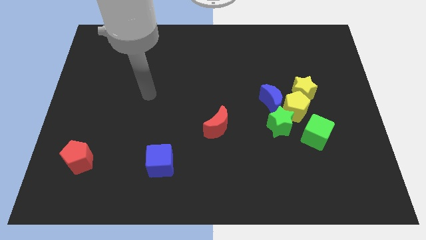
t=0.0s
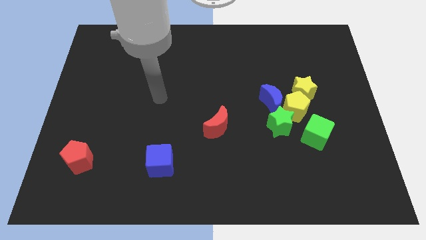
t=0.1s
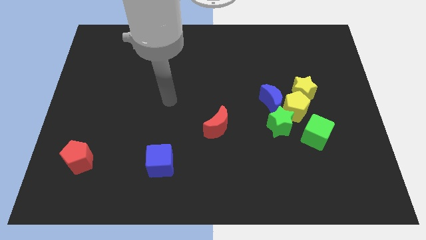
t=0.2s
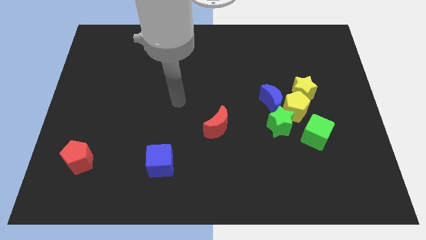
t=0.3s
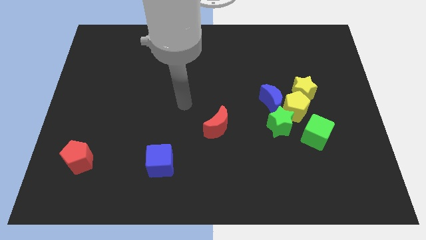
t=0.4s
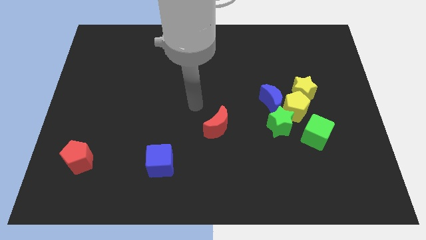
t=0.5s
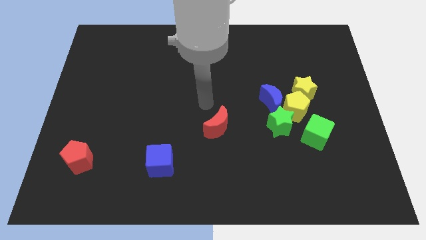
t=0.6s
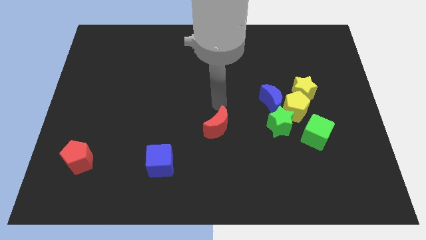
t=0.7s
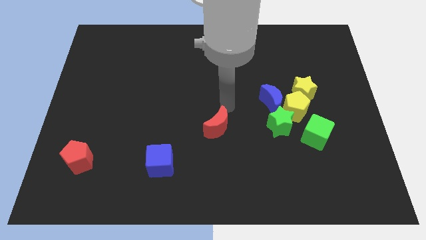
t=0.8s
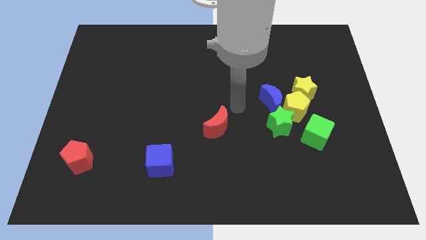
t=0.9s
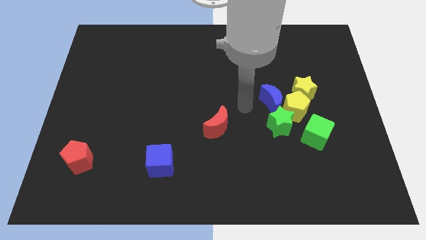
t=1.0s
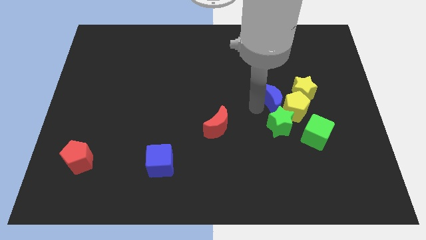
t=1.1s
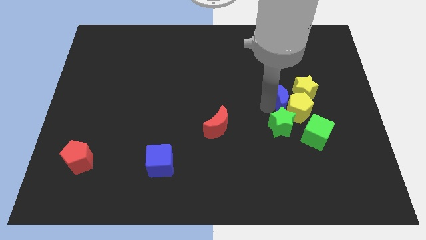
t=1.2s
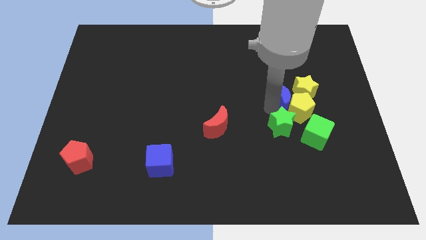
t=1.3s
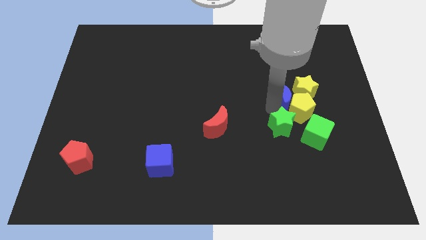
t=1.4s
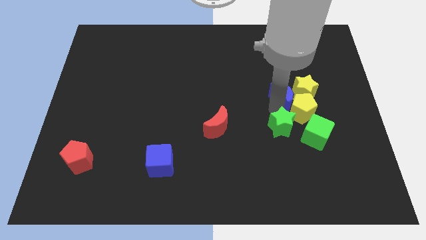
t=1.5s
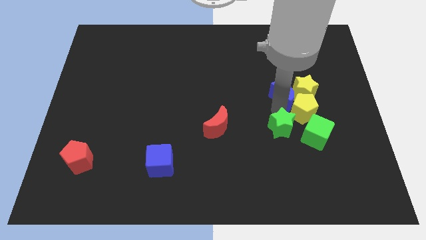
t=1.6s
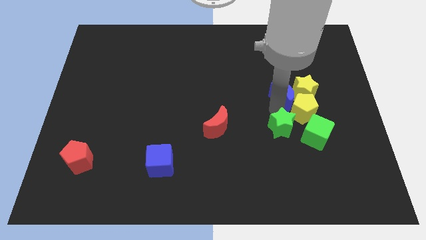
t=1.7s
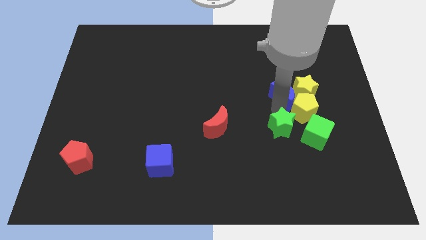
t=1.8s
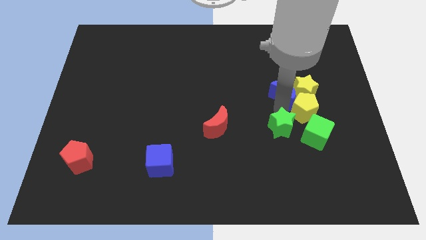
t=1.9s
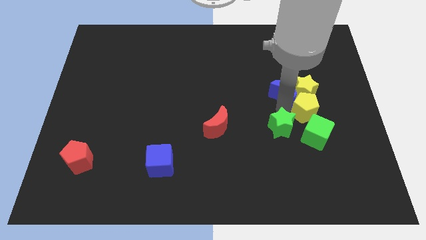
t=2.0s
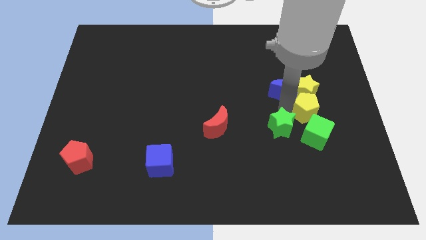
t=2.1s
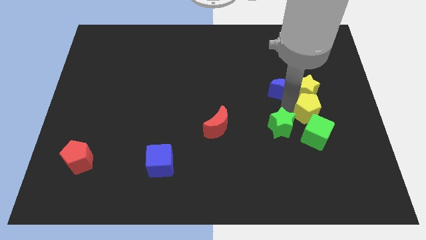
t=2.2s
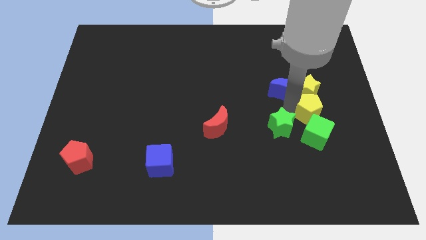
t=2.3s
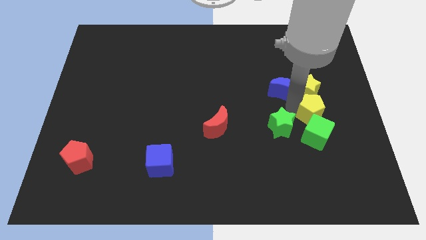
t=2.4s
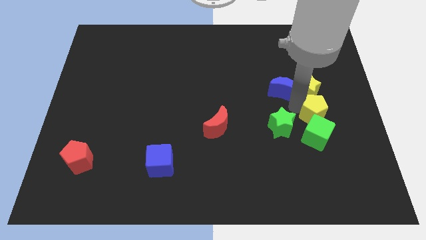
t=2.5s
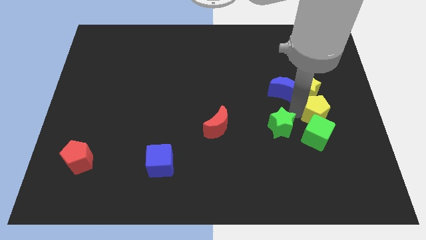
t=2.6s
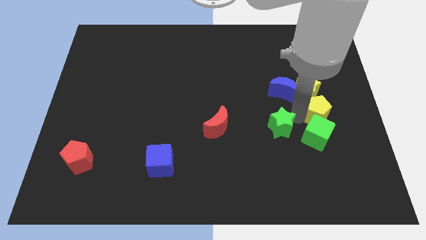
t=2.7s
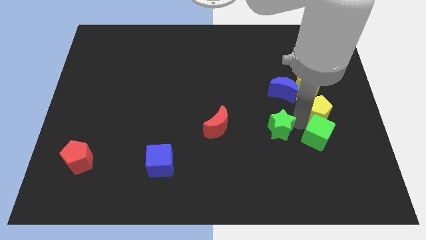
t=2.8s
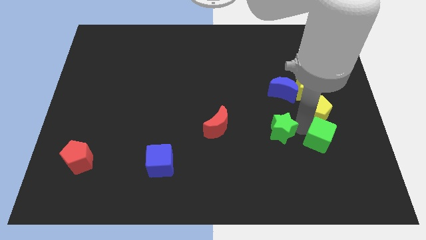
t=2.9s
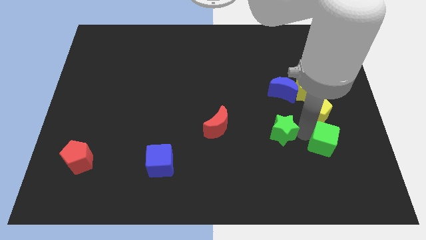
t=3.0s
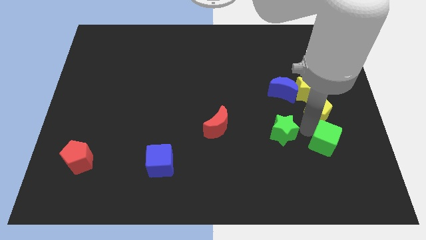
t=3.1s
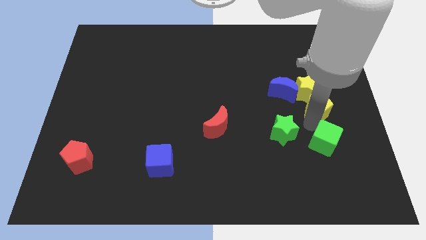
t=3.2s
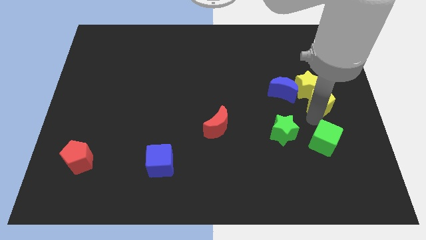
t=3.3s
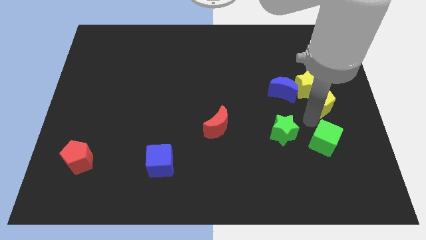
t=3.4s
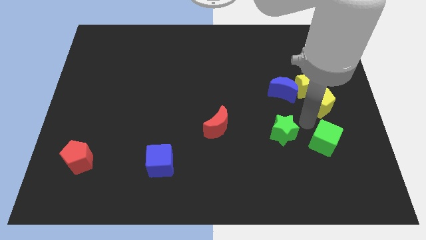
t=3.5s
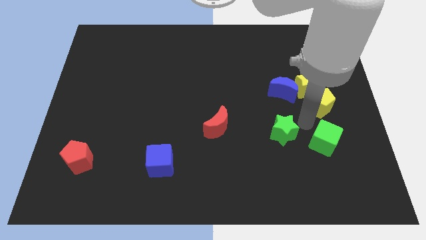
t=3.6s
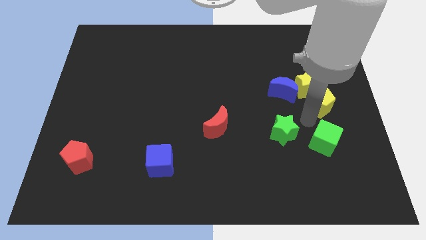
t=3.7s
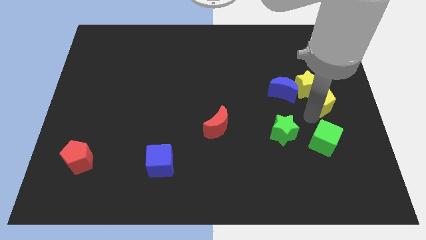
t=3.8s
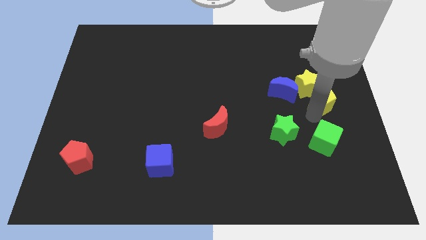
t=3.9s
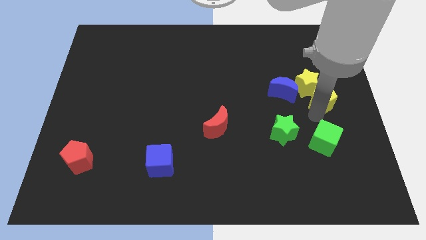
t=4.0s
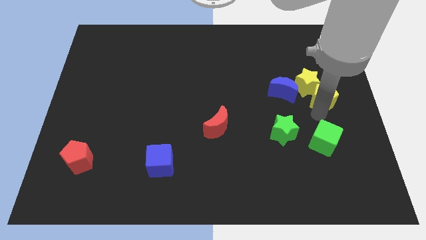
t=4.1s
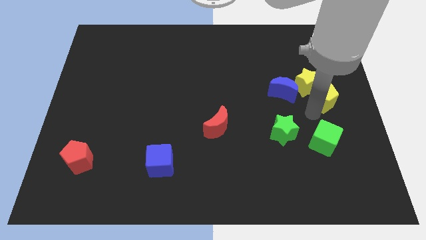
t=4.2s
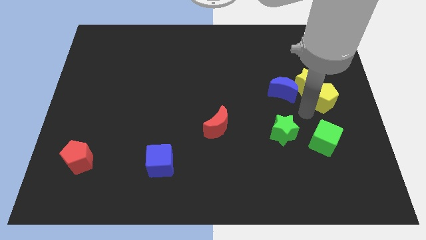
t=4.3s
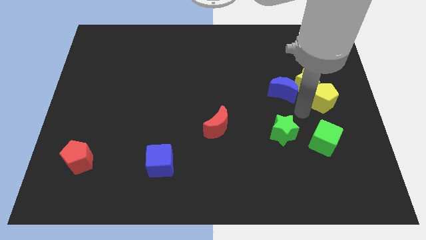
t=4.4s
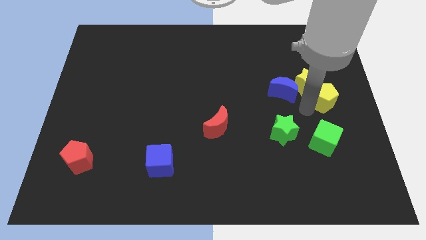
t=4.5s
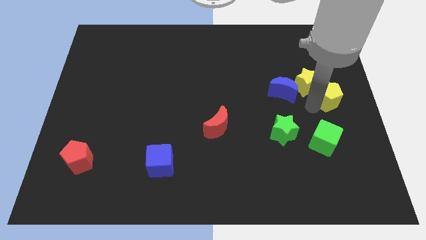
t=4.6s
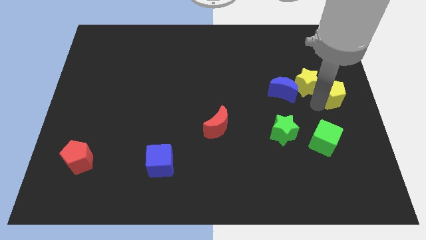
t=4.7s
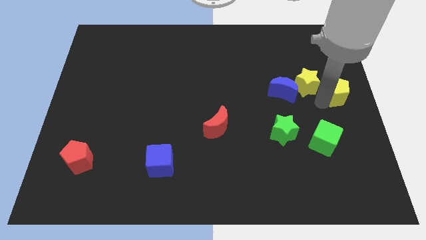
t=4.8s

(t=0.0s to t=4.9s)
separate the yellow pentagon from the group of blocks

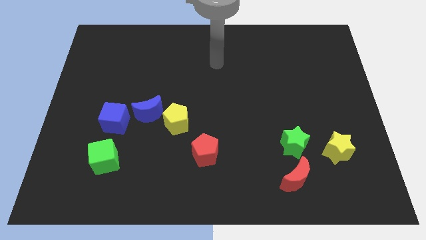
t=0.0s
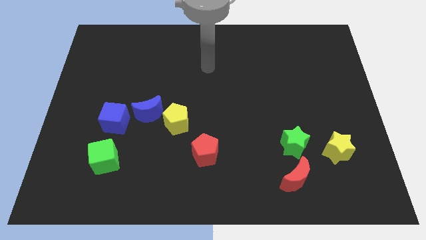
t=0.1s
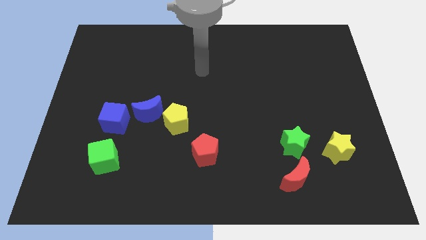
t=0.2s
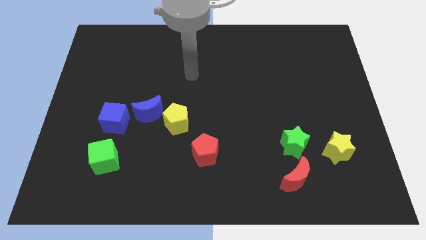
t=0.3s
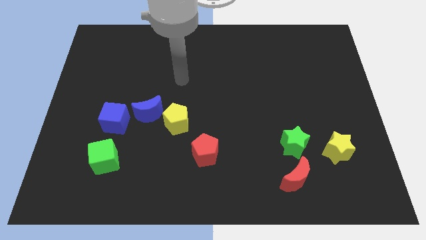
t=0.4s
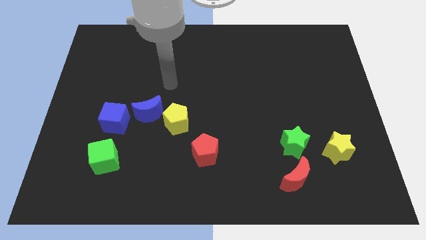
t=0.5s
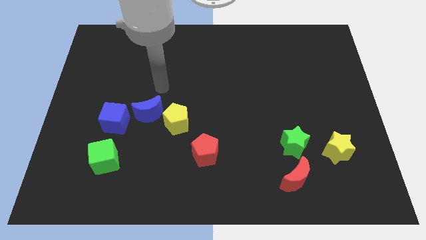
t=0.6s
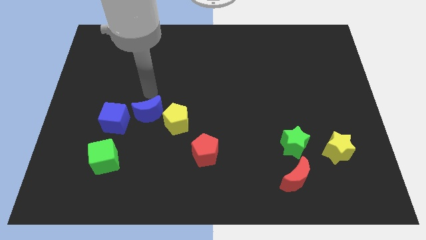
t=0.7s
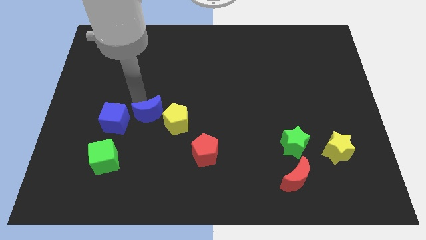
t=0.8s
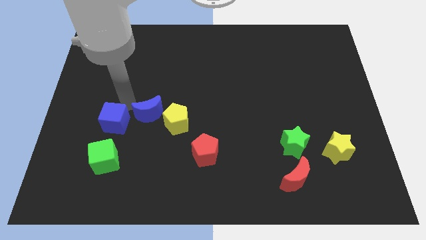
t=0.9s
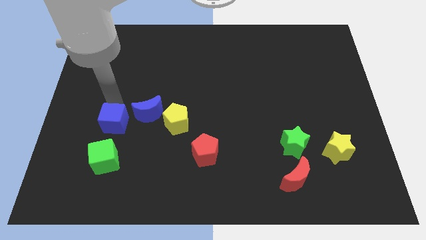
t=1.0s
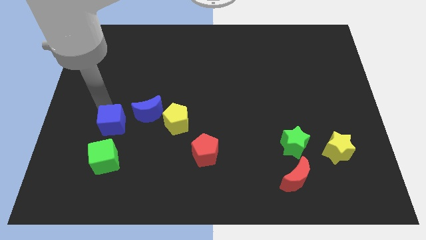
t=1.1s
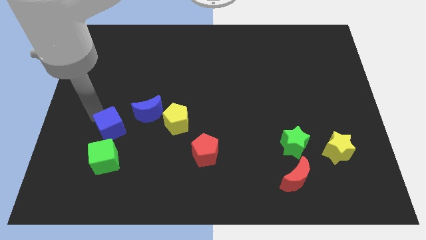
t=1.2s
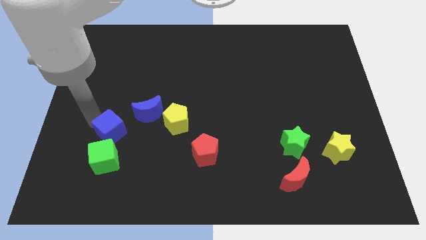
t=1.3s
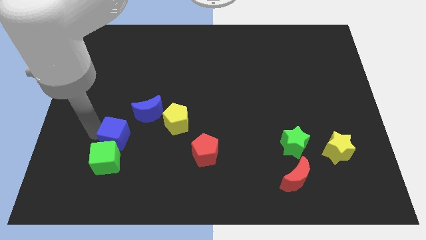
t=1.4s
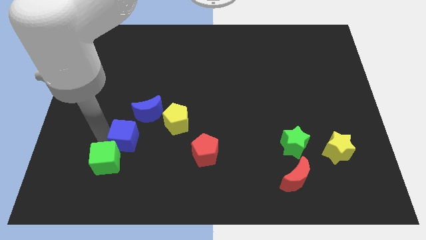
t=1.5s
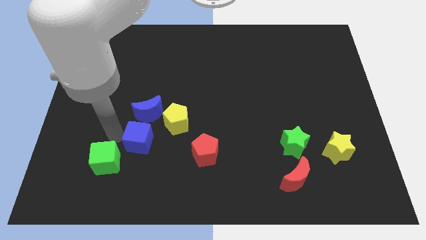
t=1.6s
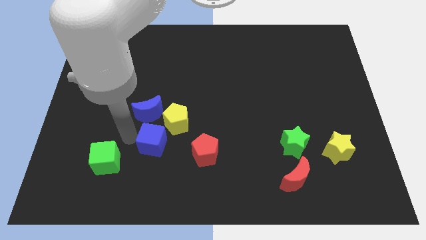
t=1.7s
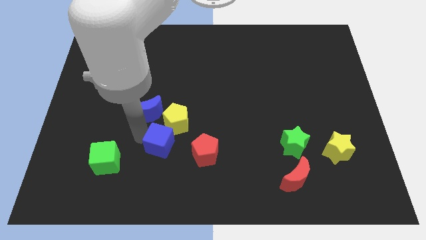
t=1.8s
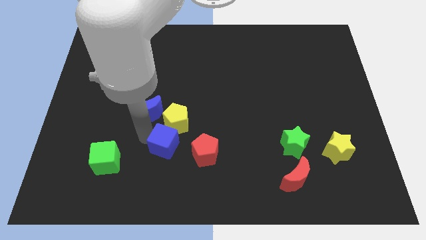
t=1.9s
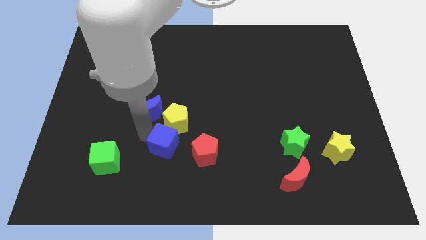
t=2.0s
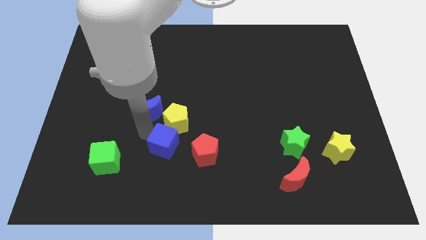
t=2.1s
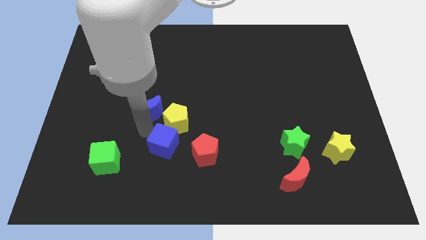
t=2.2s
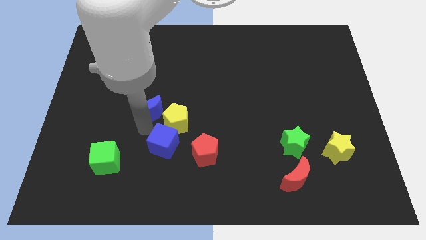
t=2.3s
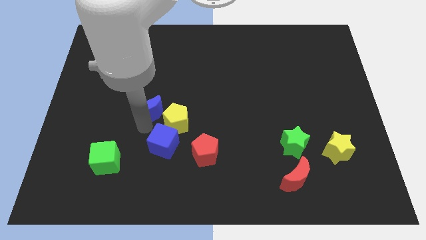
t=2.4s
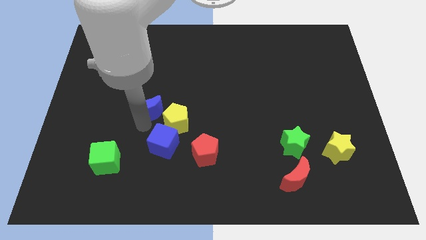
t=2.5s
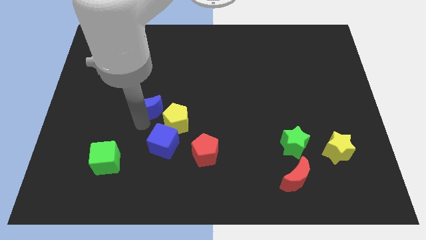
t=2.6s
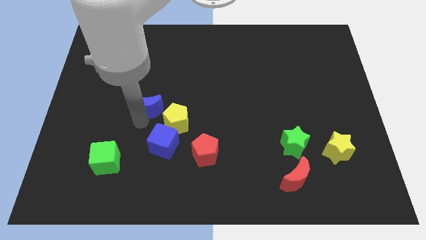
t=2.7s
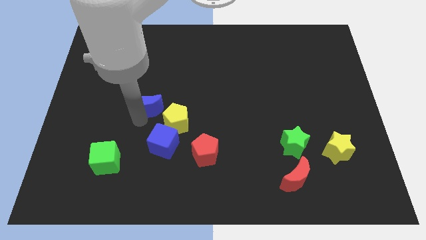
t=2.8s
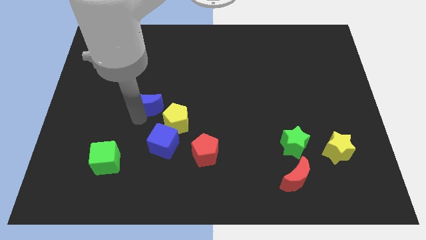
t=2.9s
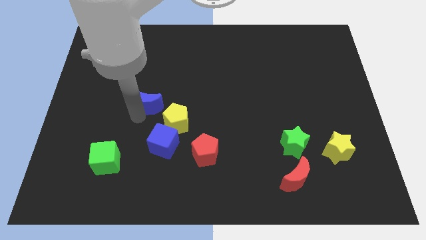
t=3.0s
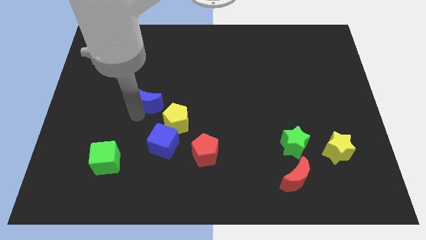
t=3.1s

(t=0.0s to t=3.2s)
pull the blue moon apart from the yellow pentagon and blue cube

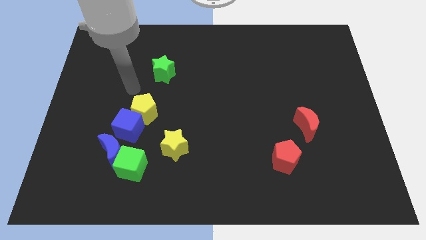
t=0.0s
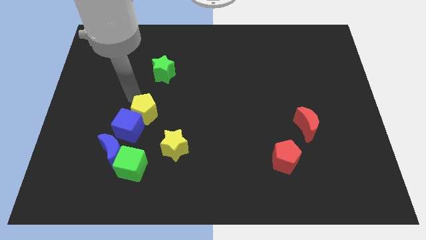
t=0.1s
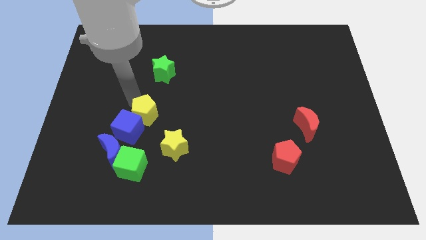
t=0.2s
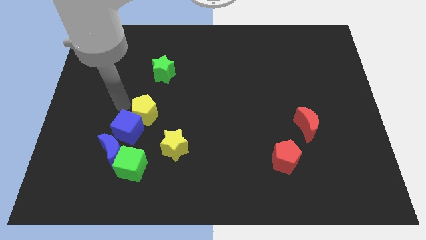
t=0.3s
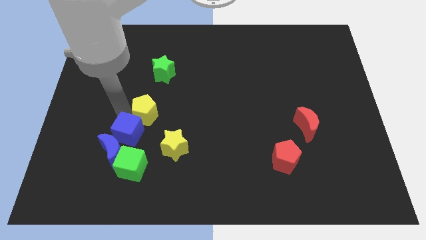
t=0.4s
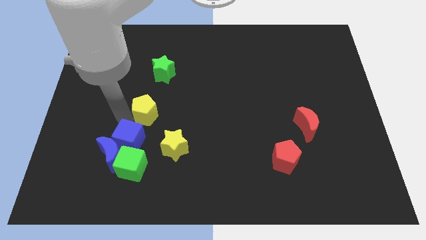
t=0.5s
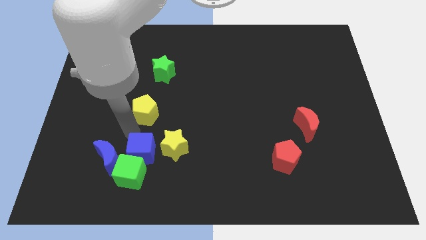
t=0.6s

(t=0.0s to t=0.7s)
separate the yellow pentagon from the blue cube

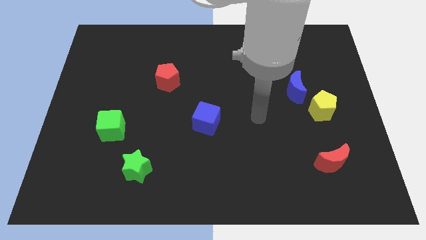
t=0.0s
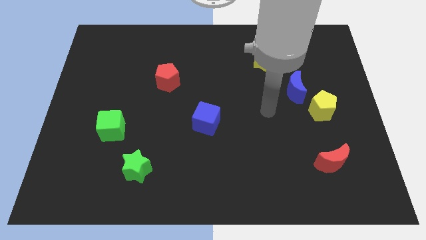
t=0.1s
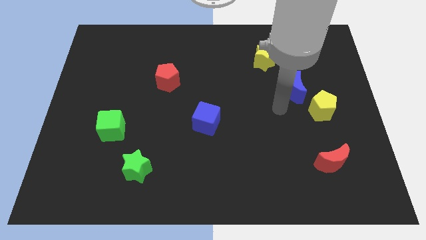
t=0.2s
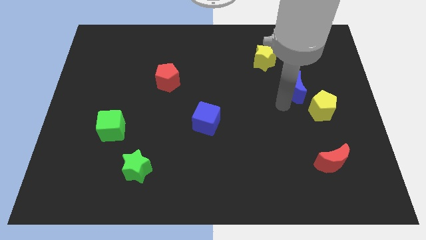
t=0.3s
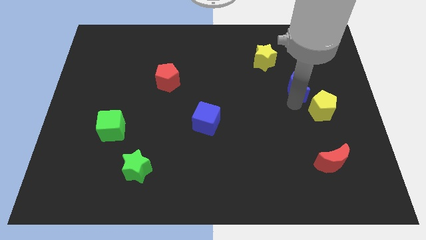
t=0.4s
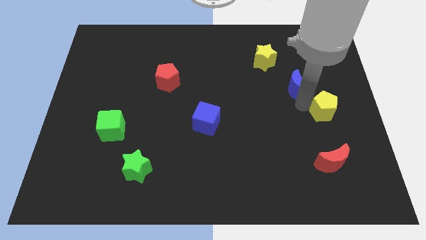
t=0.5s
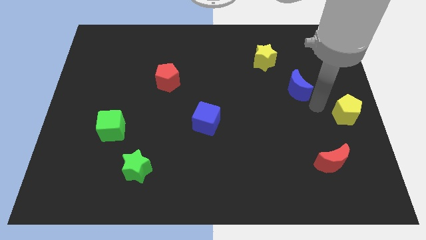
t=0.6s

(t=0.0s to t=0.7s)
separate the blue moon from the yellow pentagon
